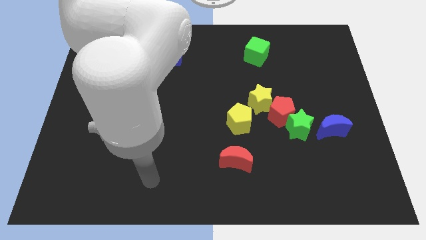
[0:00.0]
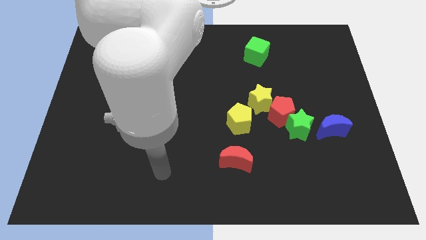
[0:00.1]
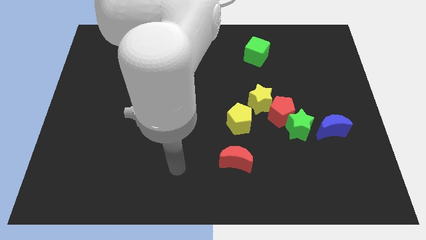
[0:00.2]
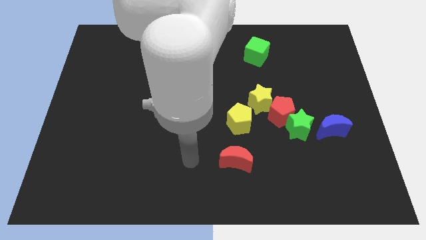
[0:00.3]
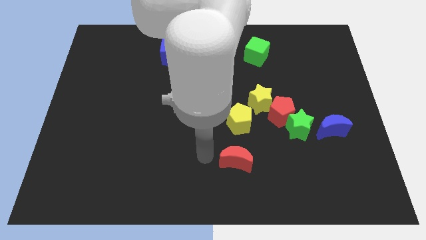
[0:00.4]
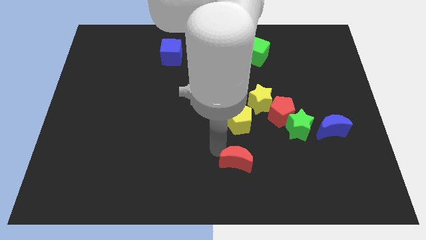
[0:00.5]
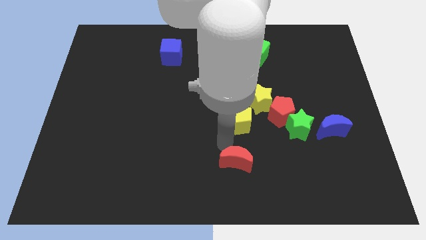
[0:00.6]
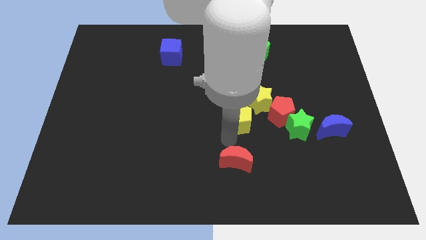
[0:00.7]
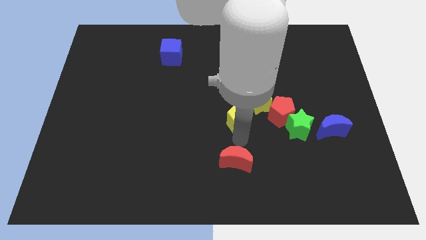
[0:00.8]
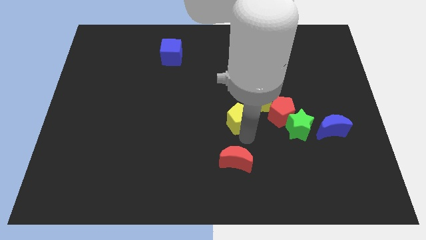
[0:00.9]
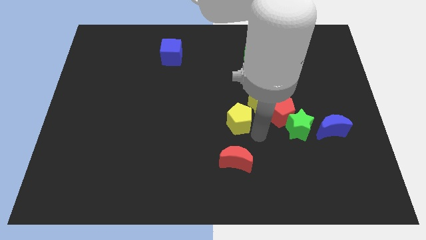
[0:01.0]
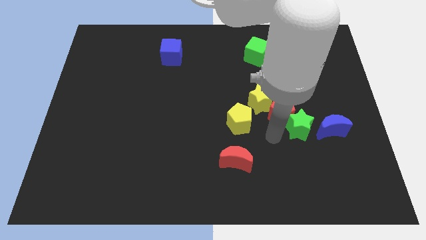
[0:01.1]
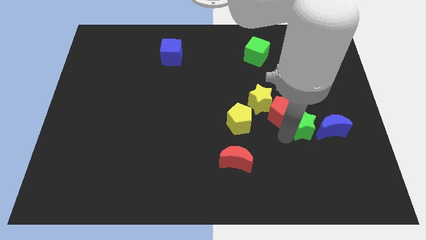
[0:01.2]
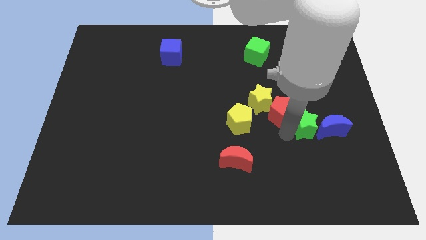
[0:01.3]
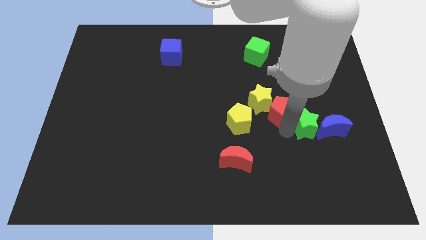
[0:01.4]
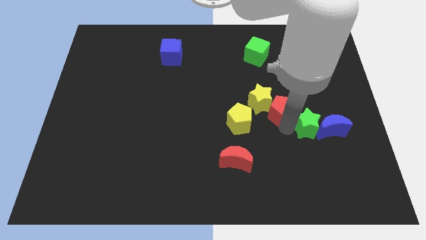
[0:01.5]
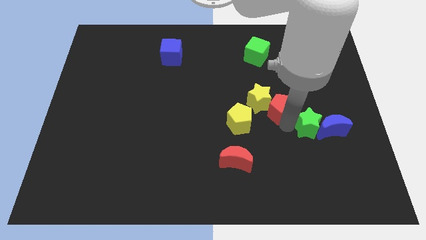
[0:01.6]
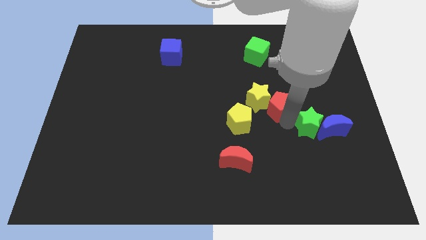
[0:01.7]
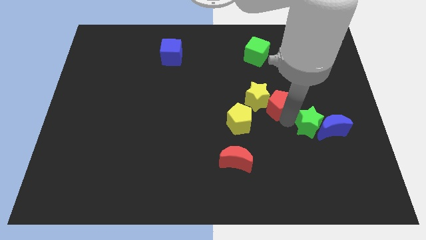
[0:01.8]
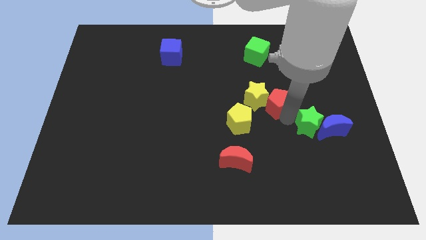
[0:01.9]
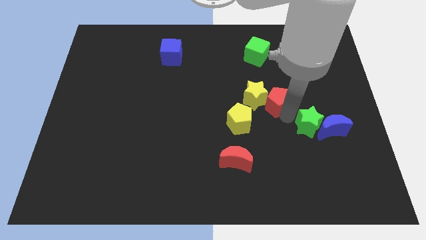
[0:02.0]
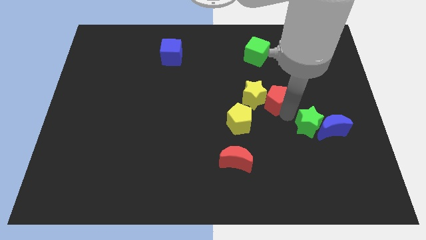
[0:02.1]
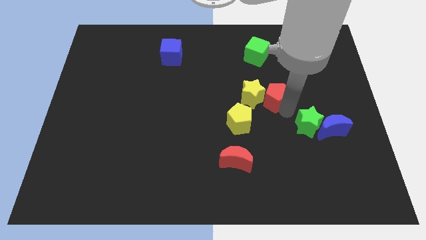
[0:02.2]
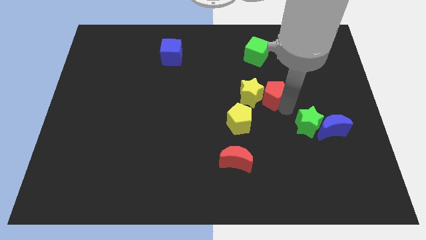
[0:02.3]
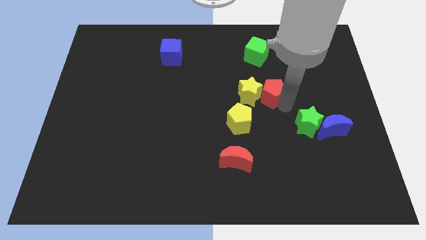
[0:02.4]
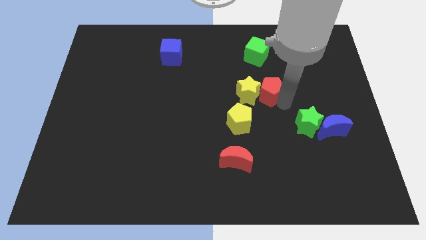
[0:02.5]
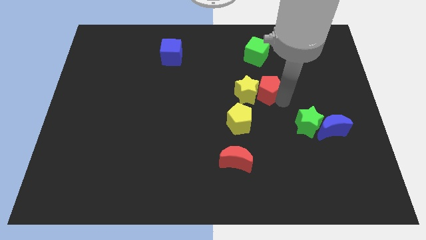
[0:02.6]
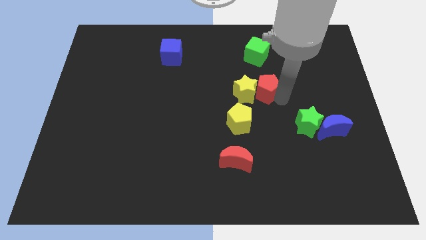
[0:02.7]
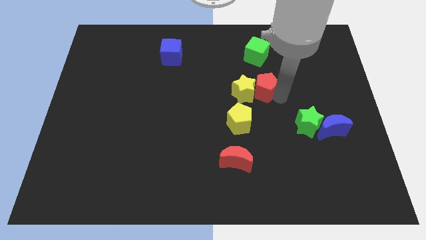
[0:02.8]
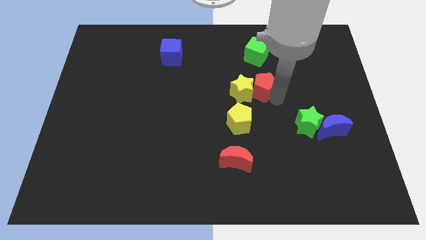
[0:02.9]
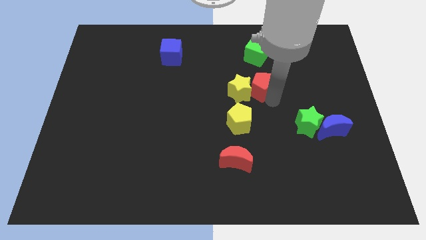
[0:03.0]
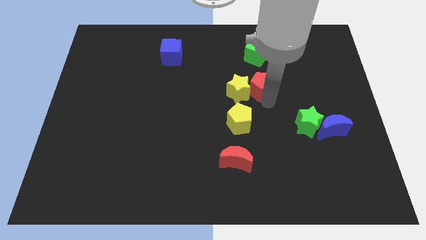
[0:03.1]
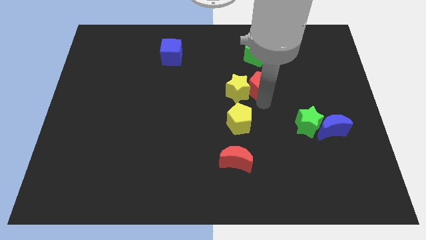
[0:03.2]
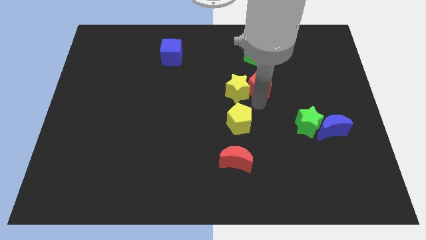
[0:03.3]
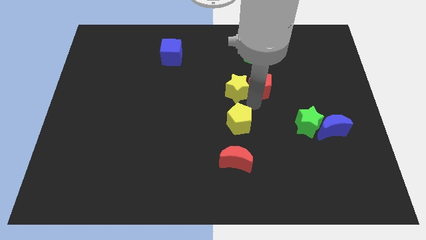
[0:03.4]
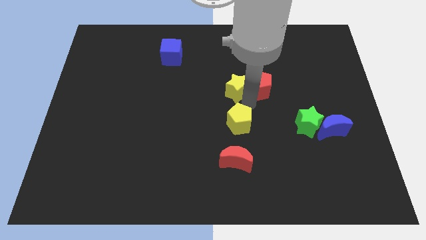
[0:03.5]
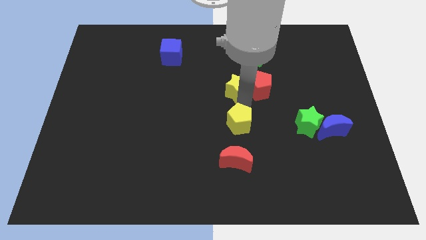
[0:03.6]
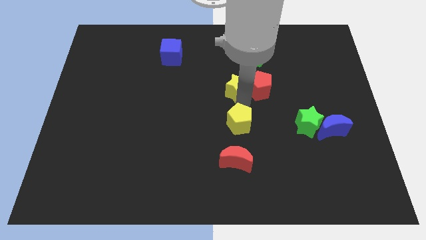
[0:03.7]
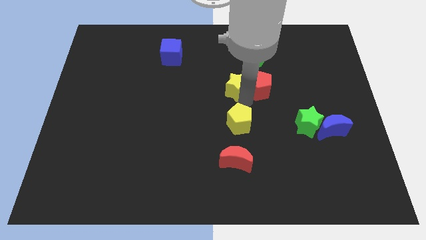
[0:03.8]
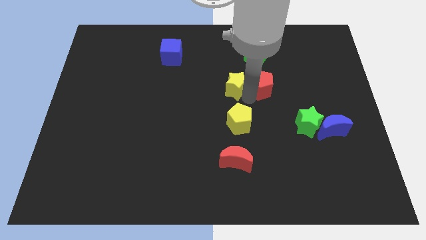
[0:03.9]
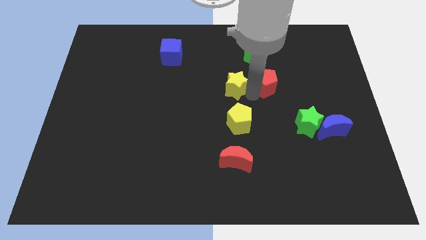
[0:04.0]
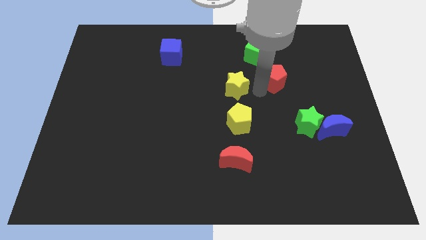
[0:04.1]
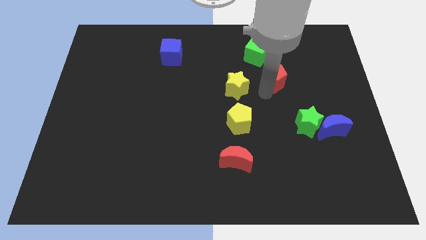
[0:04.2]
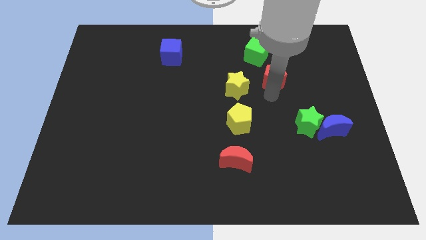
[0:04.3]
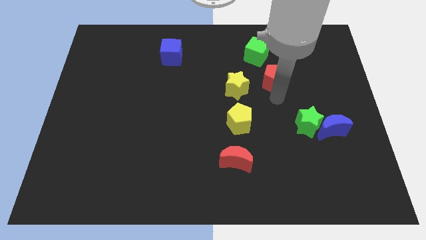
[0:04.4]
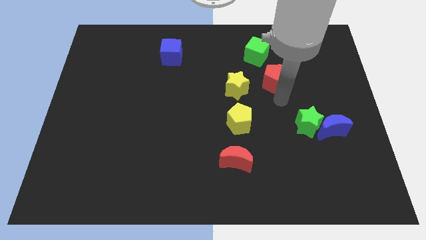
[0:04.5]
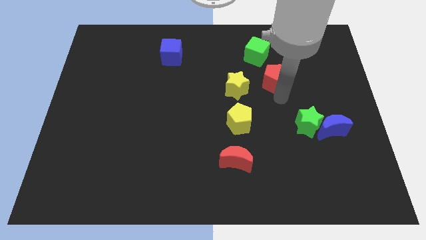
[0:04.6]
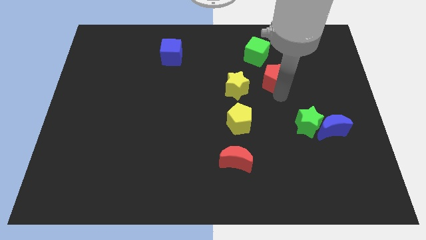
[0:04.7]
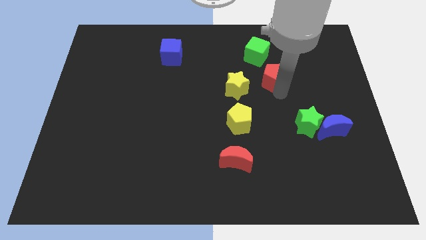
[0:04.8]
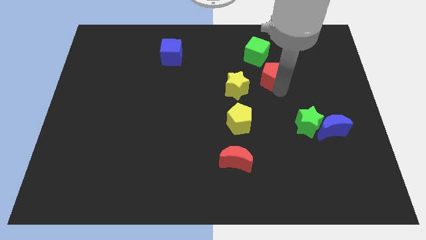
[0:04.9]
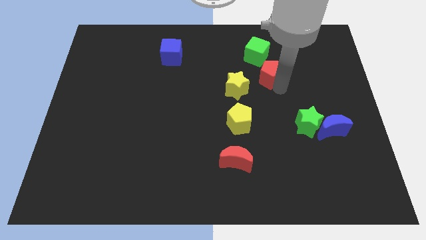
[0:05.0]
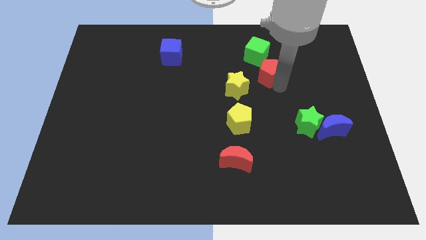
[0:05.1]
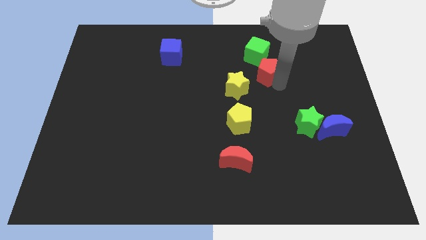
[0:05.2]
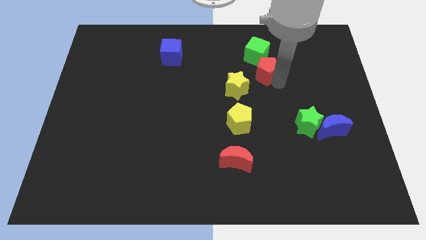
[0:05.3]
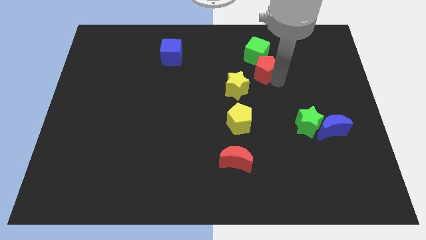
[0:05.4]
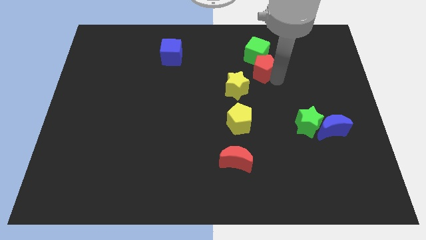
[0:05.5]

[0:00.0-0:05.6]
slide the red pentagon to the green cube

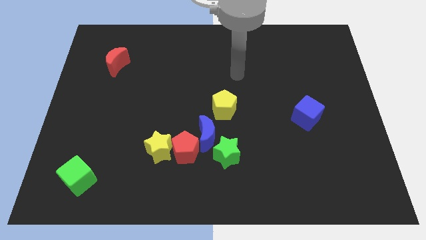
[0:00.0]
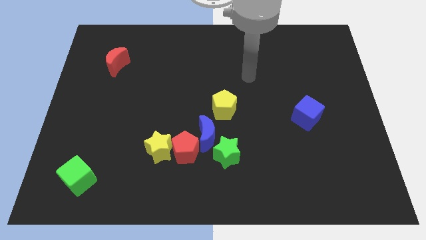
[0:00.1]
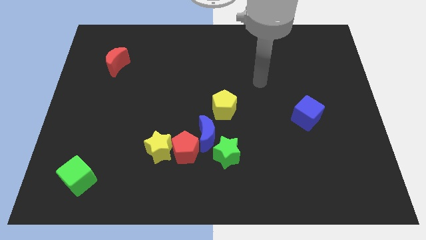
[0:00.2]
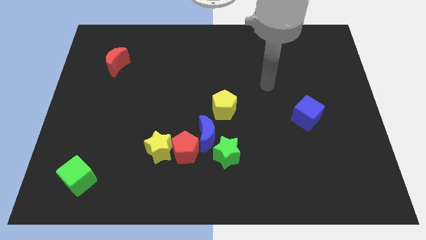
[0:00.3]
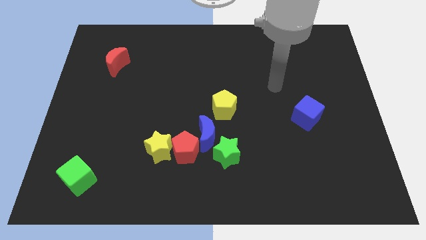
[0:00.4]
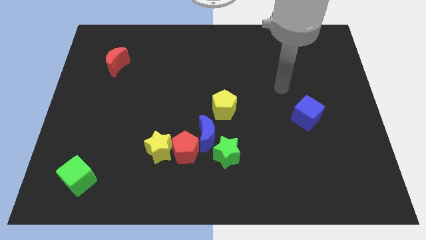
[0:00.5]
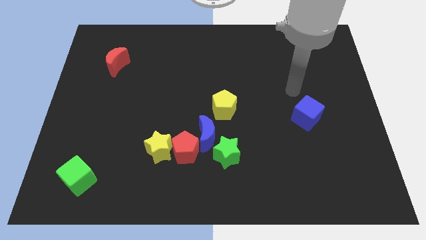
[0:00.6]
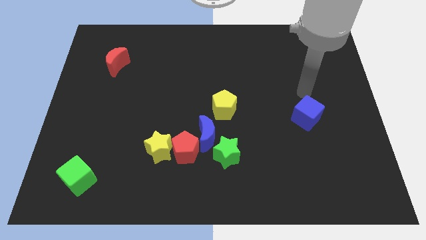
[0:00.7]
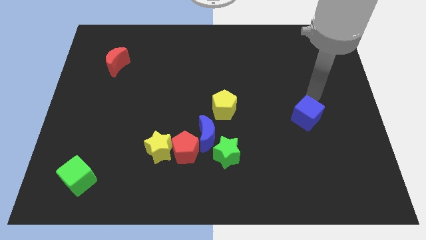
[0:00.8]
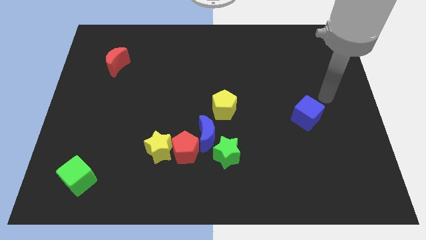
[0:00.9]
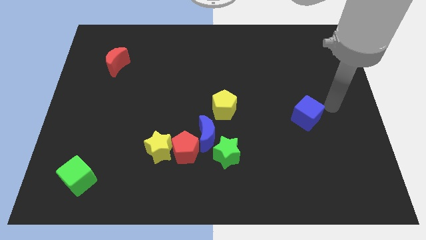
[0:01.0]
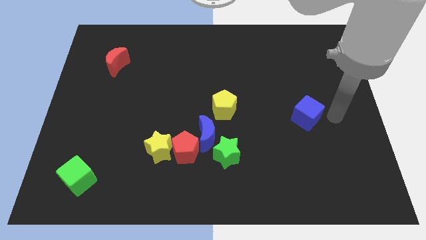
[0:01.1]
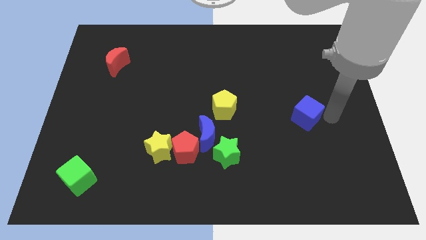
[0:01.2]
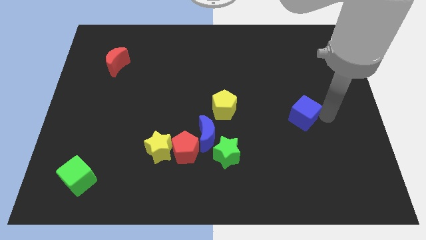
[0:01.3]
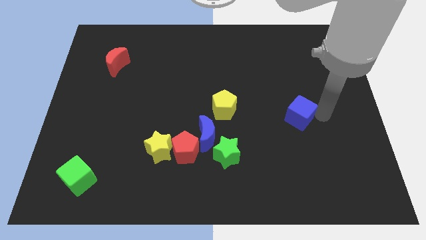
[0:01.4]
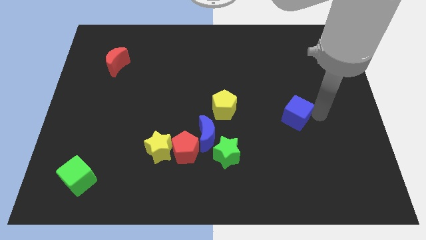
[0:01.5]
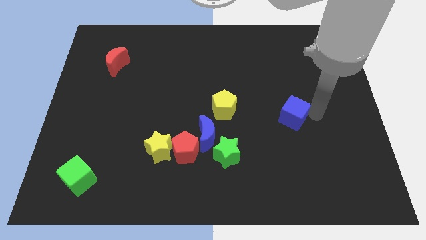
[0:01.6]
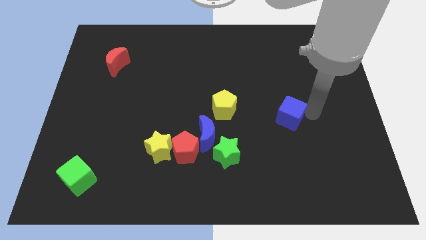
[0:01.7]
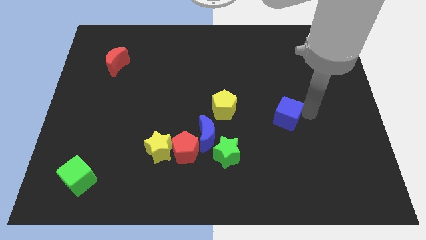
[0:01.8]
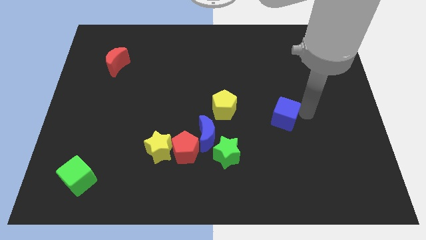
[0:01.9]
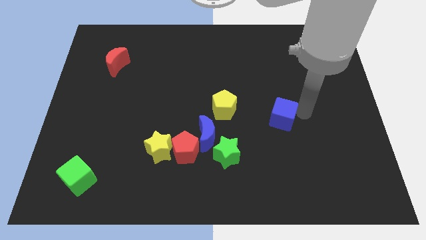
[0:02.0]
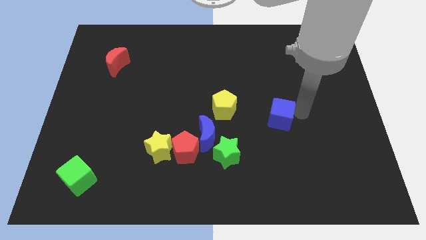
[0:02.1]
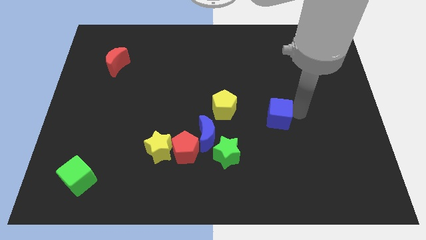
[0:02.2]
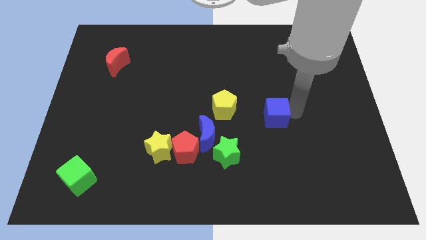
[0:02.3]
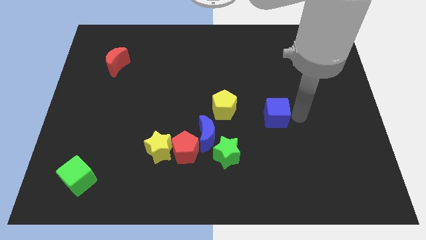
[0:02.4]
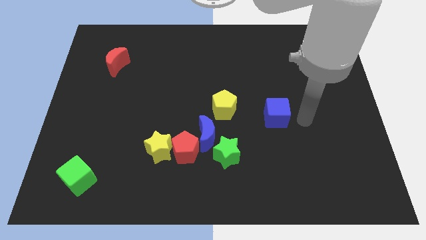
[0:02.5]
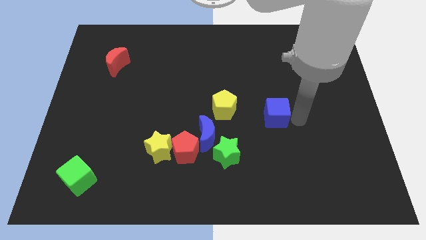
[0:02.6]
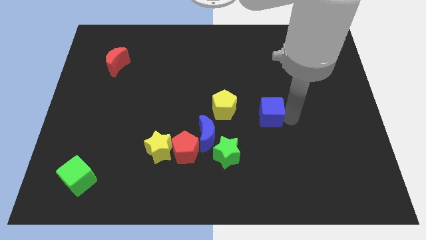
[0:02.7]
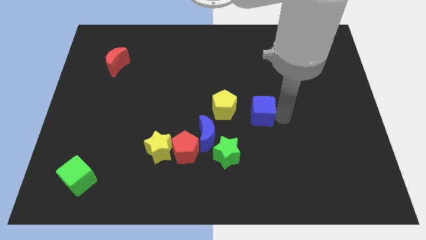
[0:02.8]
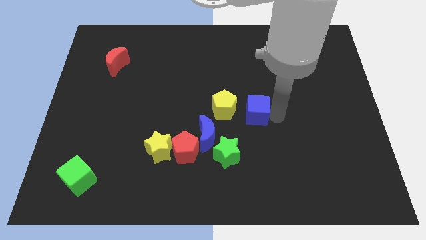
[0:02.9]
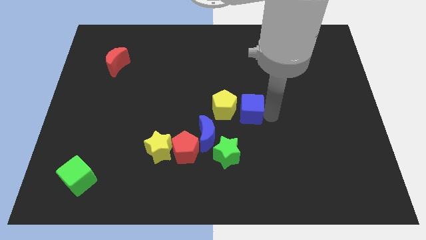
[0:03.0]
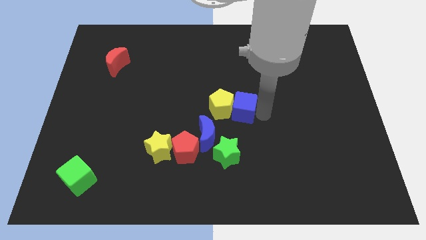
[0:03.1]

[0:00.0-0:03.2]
put the blue cube next to the yellow pentagon
